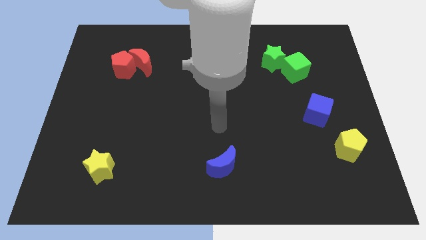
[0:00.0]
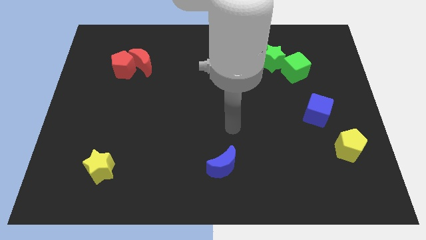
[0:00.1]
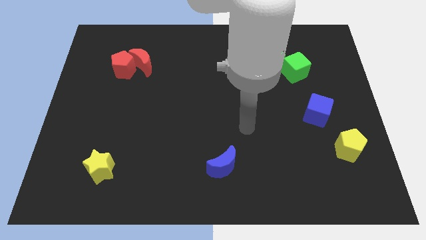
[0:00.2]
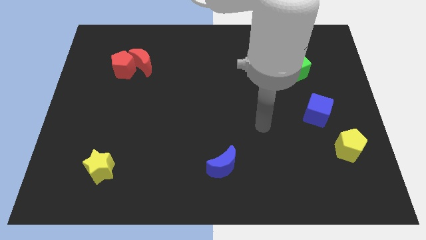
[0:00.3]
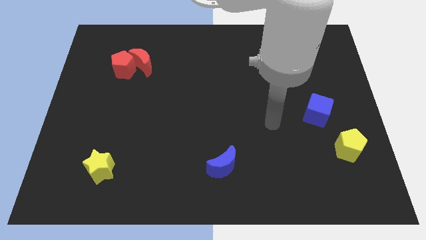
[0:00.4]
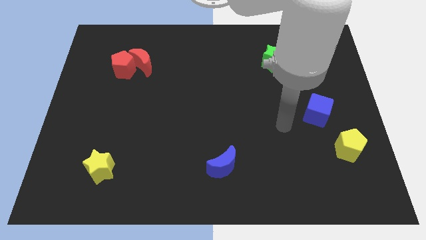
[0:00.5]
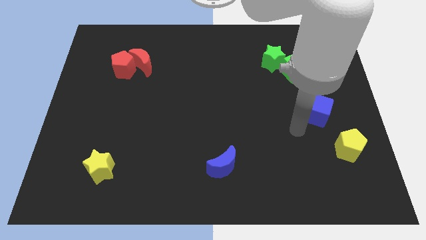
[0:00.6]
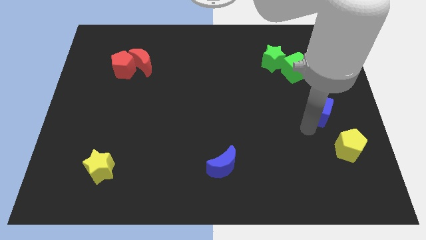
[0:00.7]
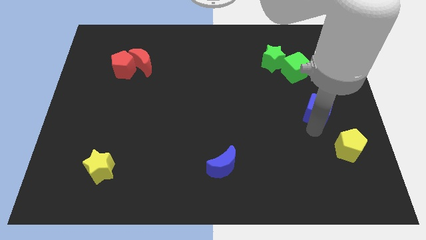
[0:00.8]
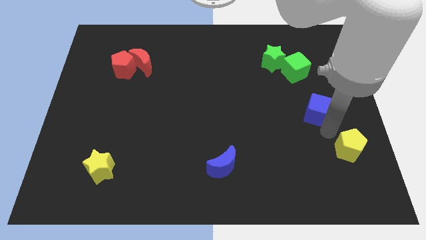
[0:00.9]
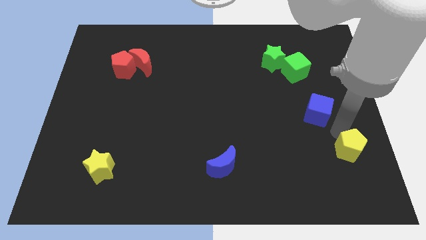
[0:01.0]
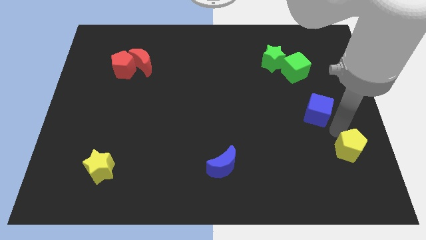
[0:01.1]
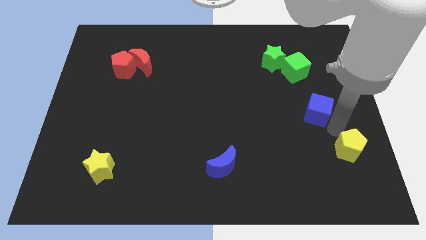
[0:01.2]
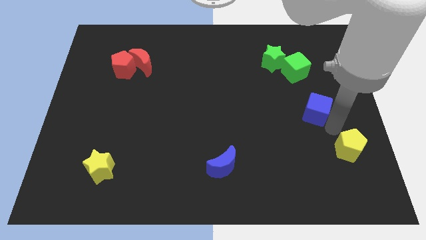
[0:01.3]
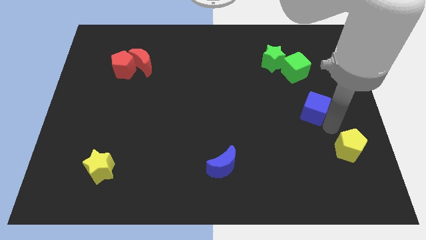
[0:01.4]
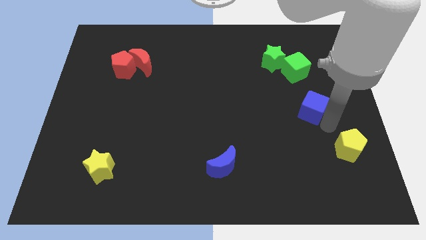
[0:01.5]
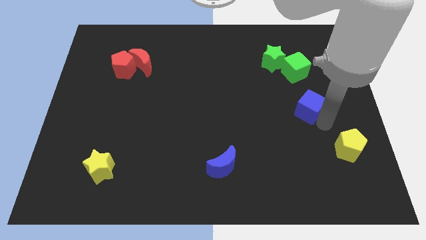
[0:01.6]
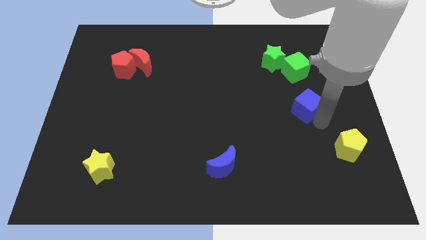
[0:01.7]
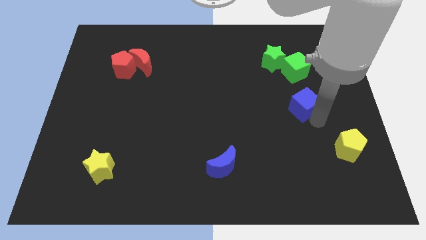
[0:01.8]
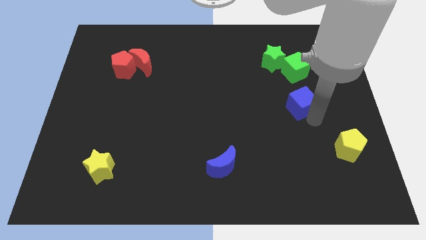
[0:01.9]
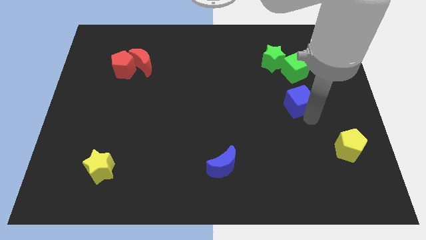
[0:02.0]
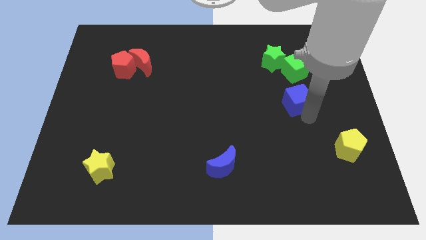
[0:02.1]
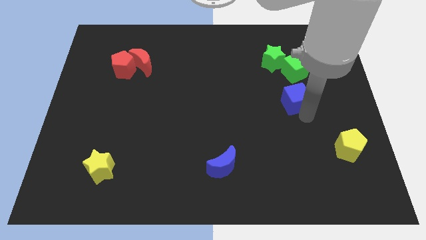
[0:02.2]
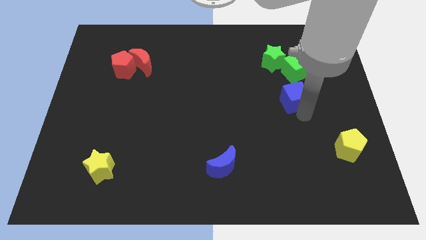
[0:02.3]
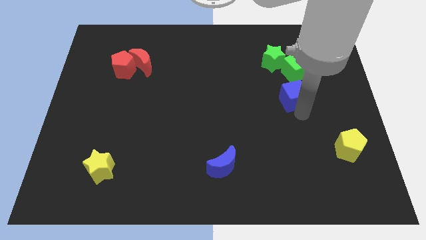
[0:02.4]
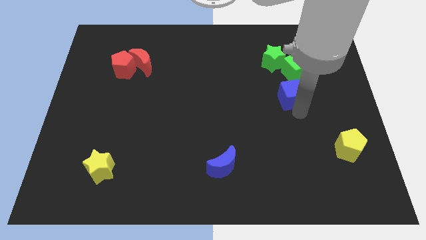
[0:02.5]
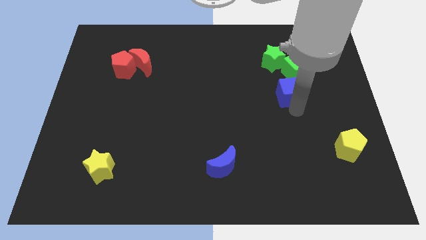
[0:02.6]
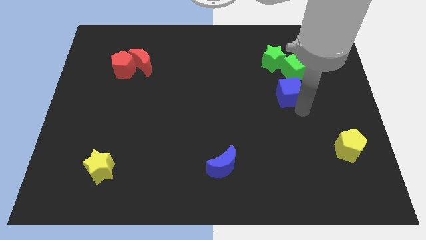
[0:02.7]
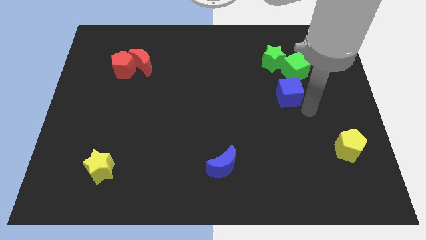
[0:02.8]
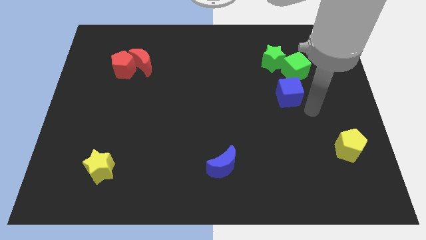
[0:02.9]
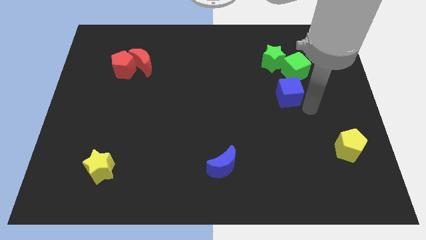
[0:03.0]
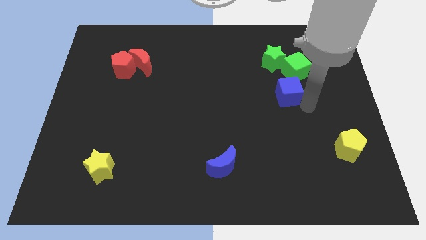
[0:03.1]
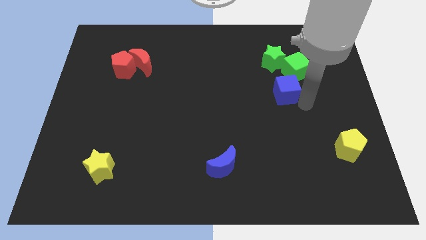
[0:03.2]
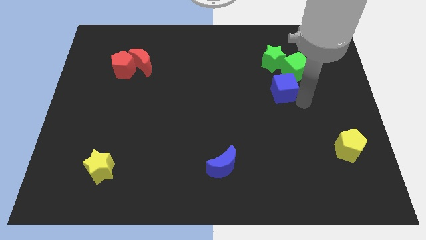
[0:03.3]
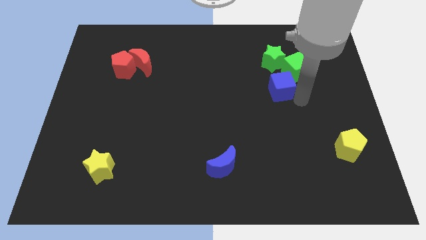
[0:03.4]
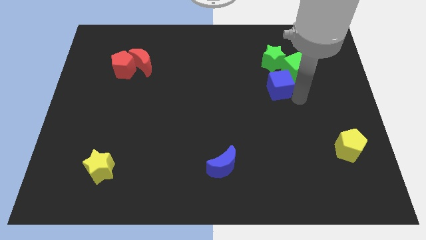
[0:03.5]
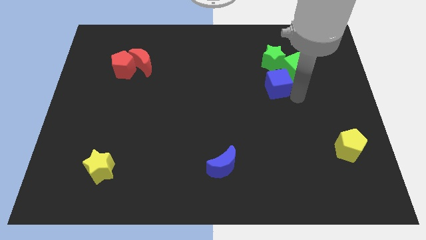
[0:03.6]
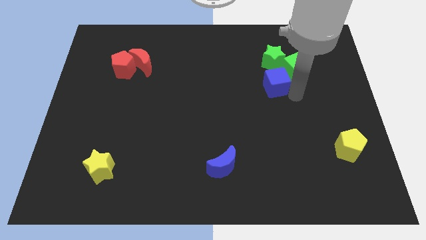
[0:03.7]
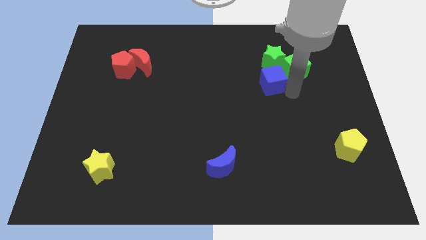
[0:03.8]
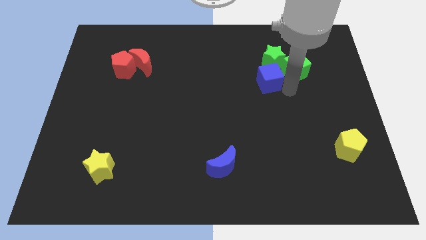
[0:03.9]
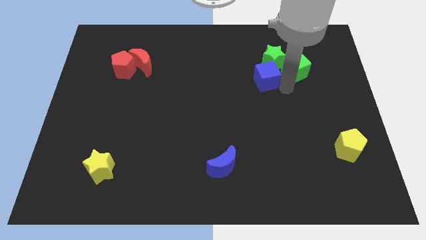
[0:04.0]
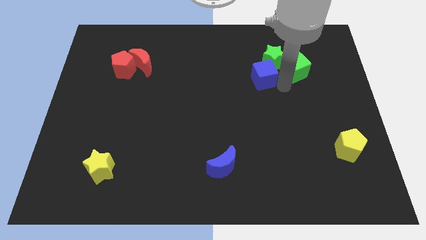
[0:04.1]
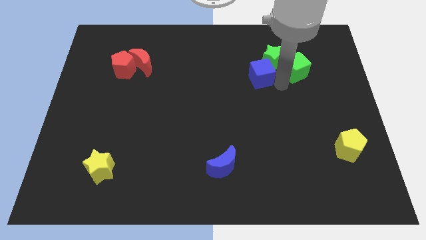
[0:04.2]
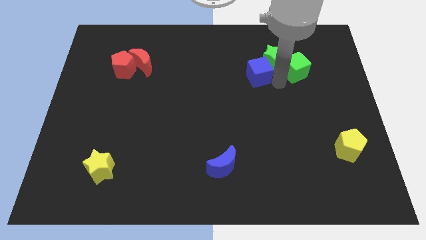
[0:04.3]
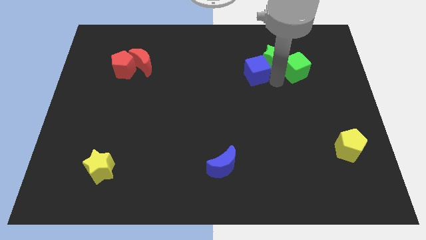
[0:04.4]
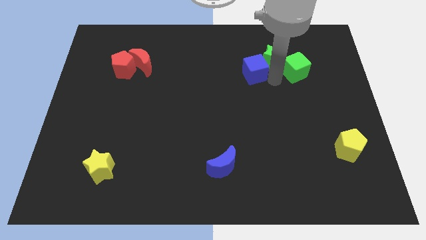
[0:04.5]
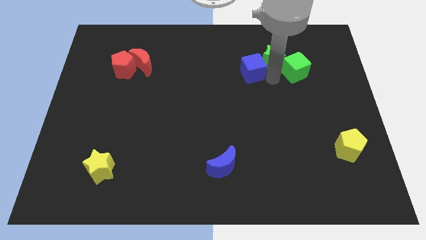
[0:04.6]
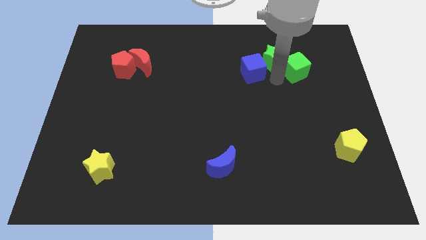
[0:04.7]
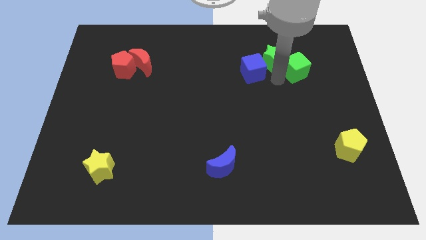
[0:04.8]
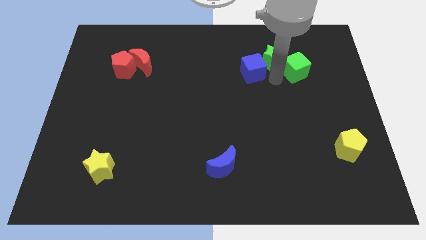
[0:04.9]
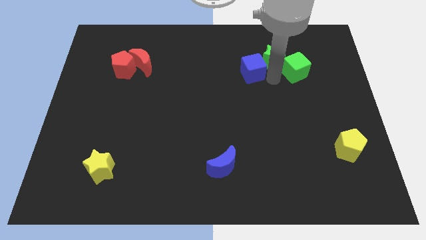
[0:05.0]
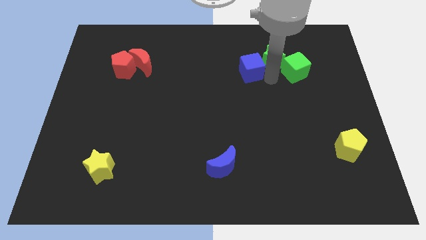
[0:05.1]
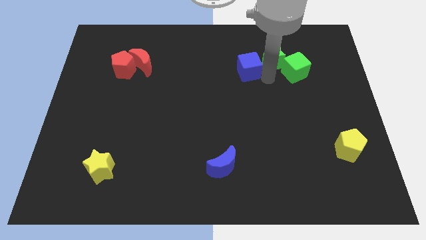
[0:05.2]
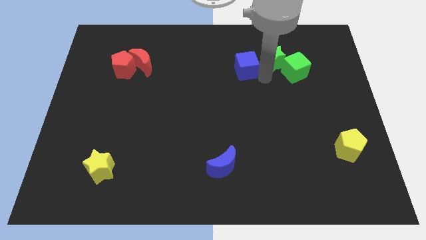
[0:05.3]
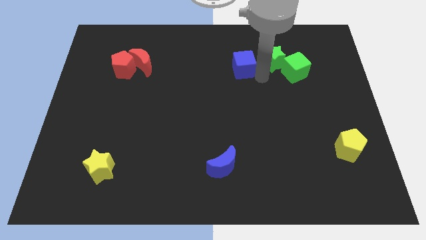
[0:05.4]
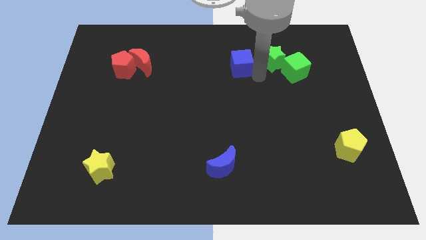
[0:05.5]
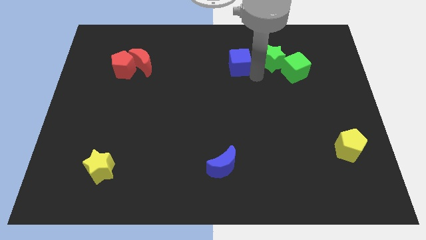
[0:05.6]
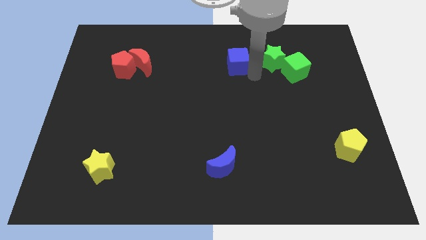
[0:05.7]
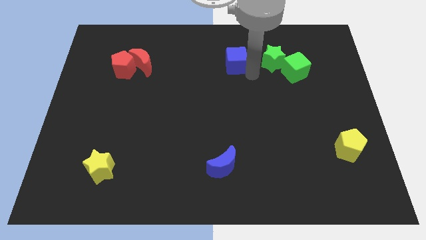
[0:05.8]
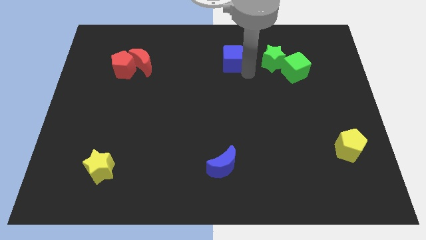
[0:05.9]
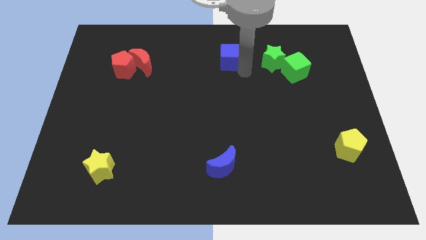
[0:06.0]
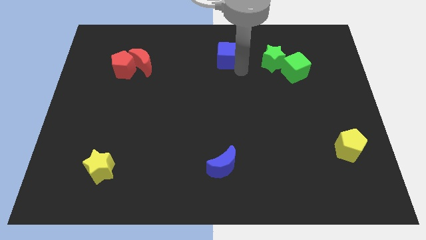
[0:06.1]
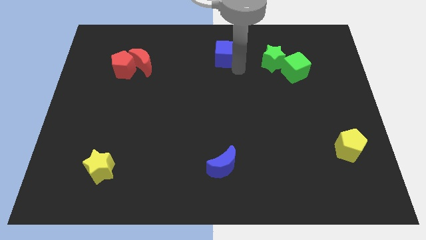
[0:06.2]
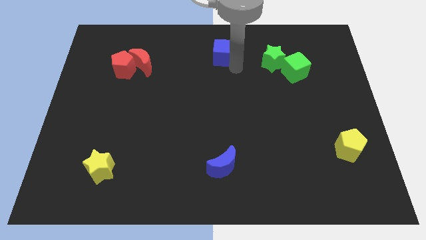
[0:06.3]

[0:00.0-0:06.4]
put the blue cube to the towards your base
